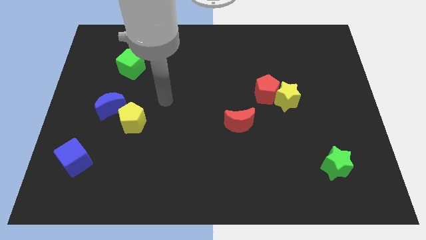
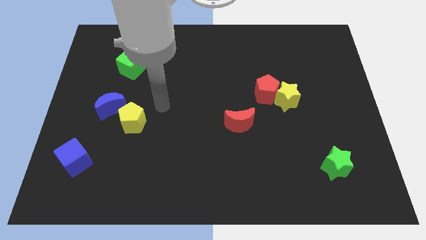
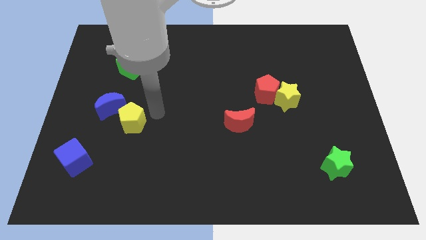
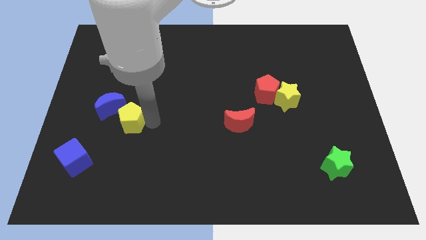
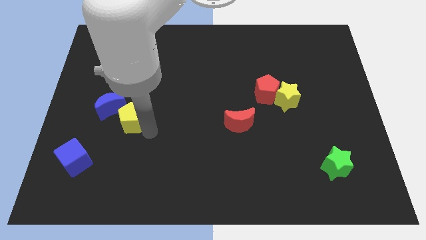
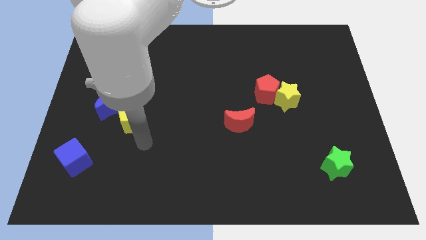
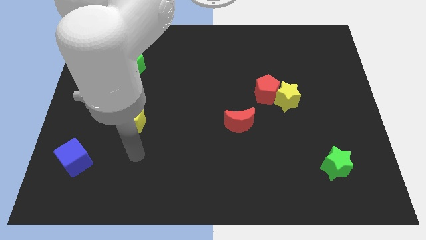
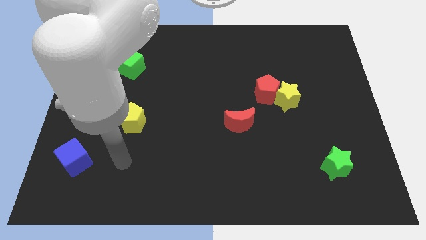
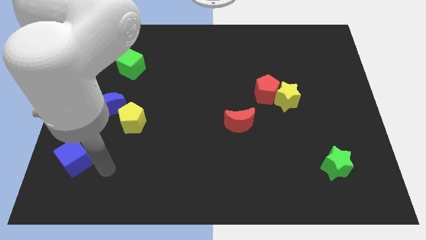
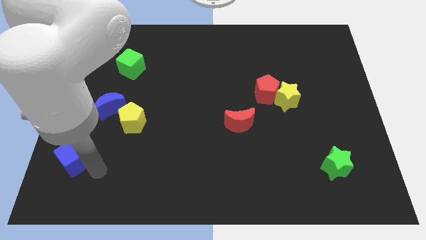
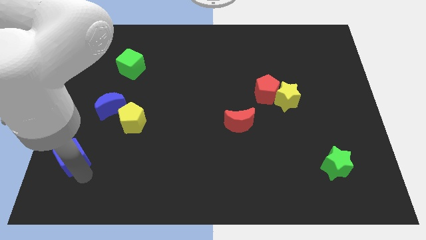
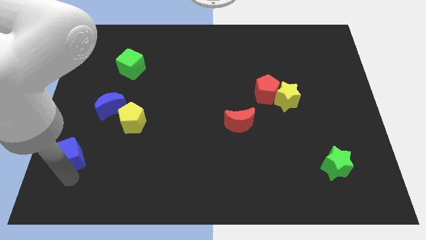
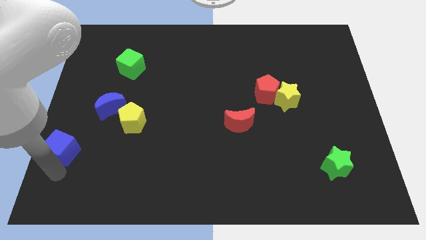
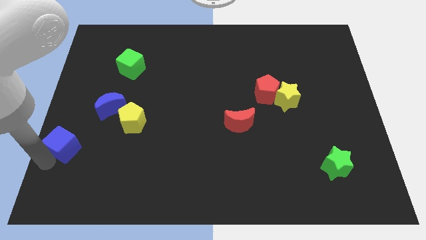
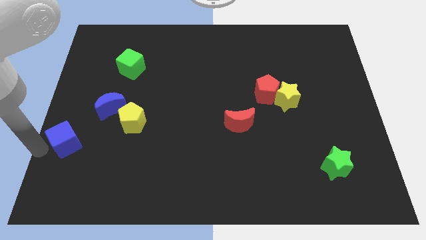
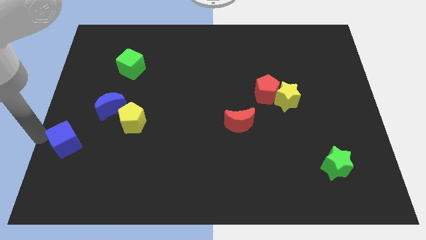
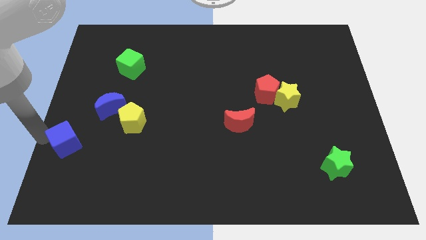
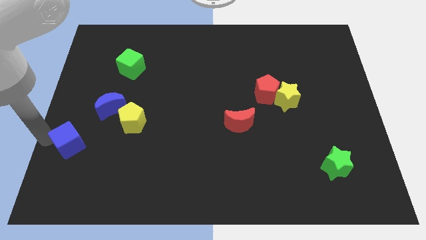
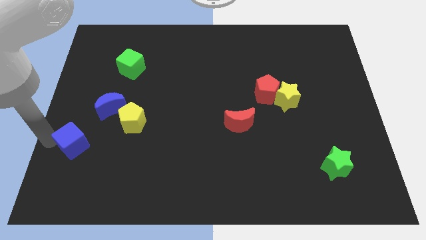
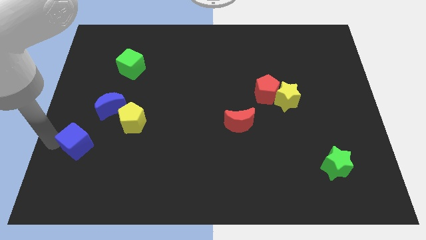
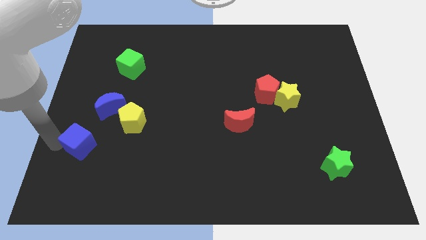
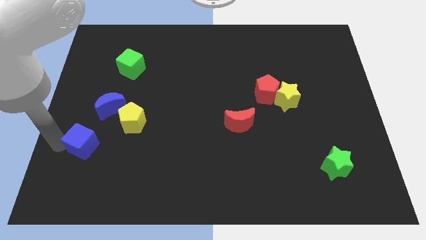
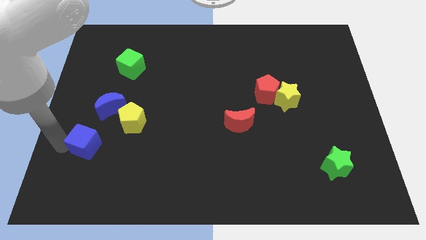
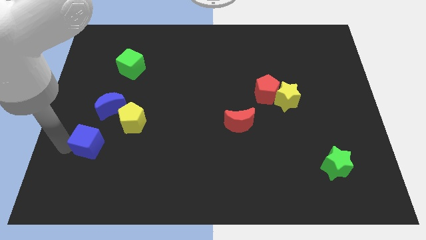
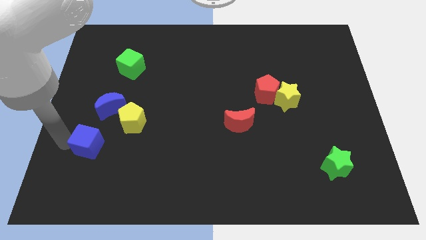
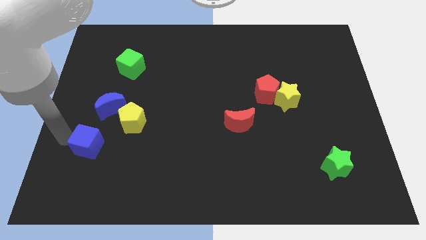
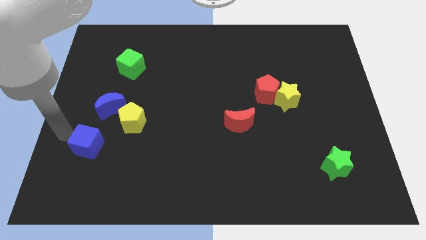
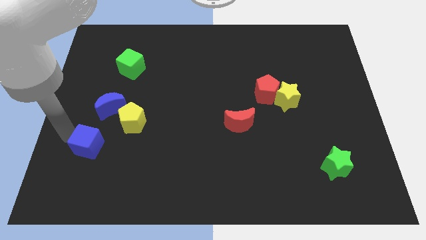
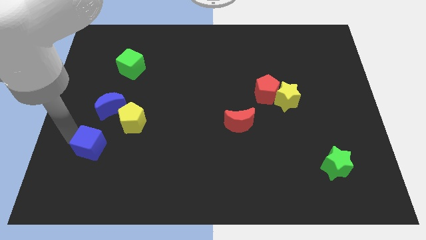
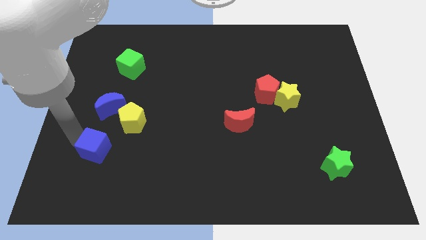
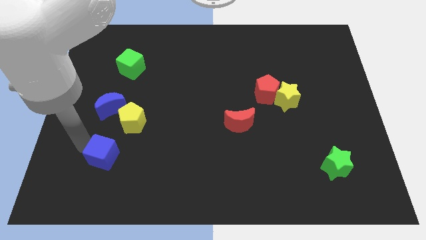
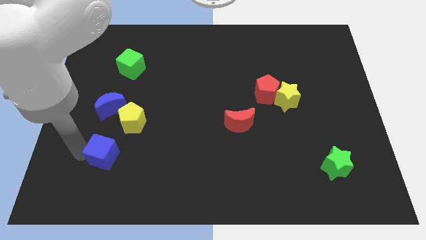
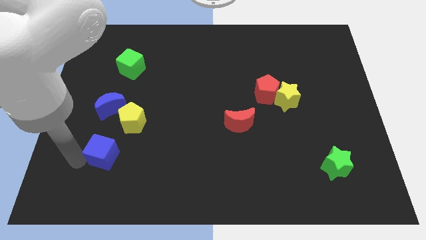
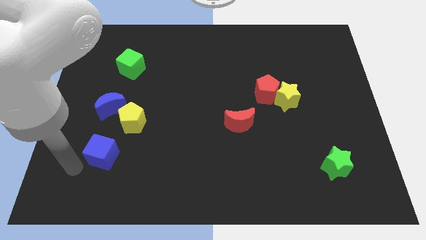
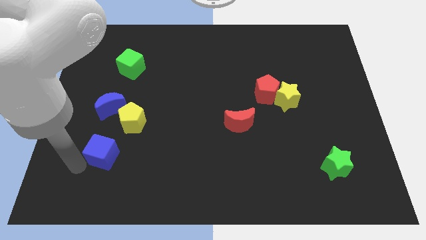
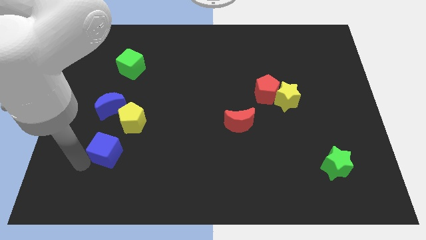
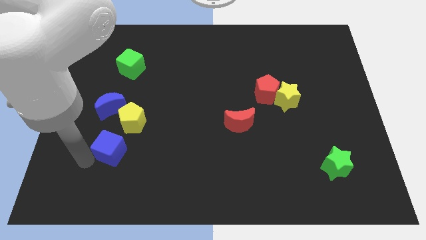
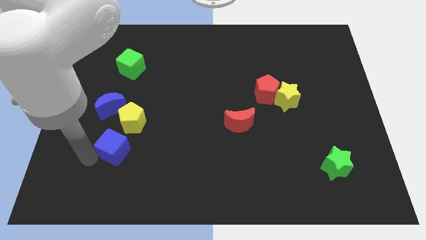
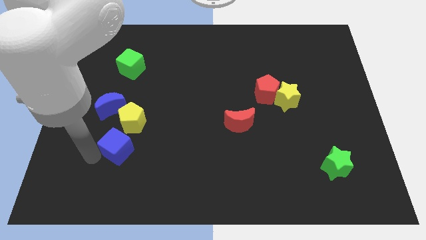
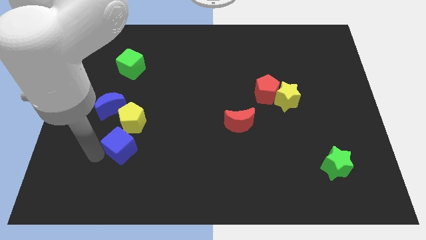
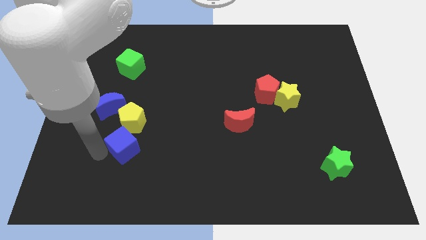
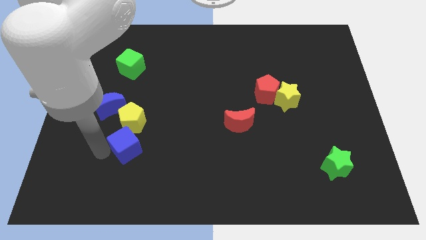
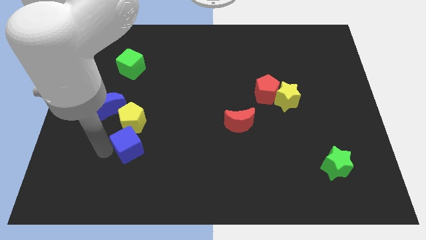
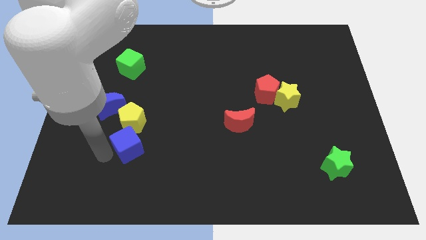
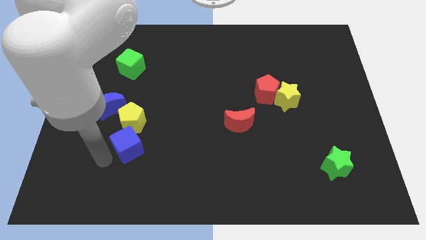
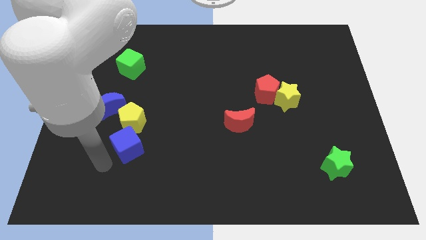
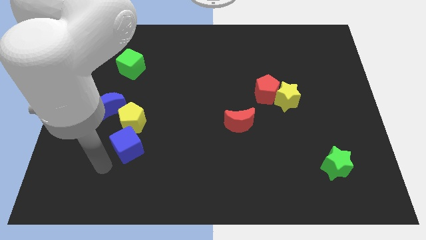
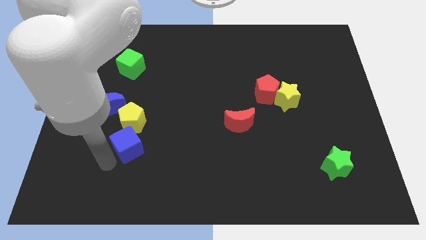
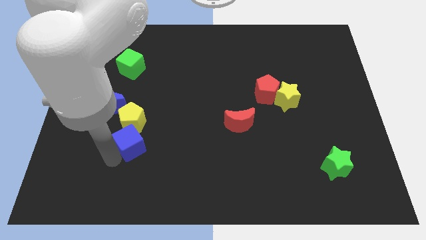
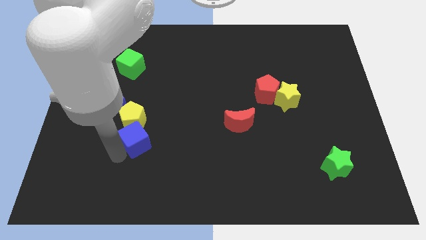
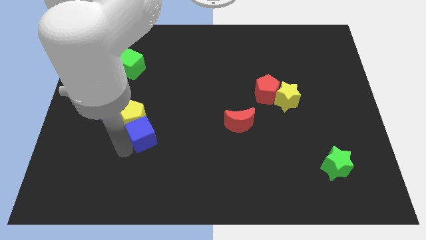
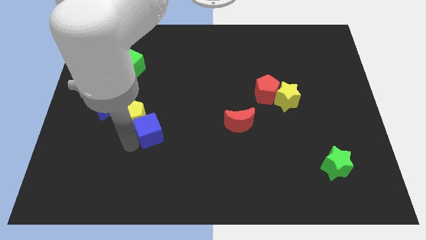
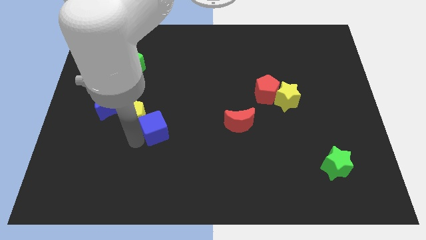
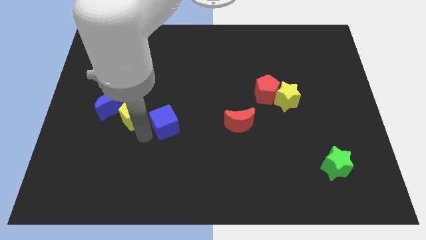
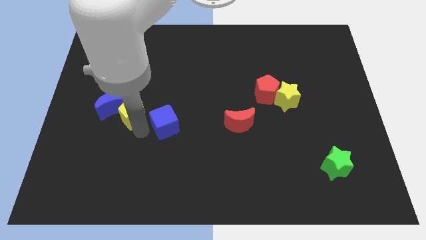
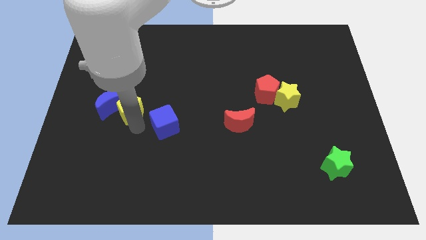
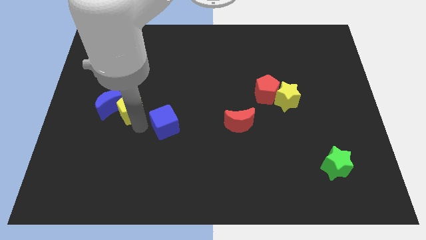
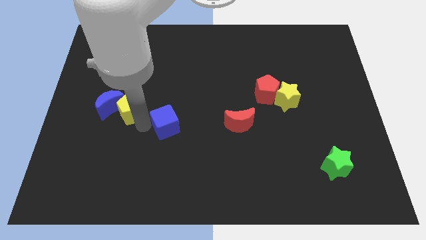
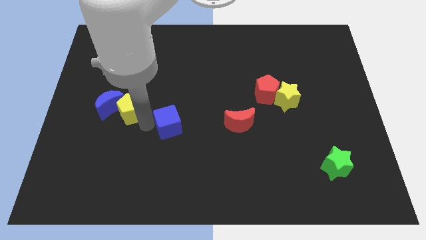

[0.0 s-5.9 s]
push the blue cube just left of the red moon

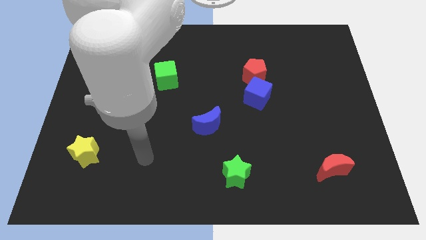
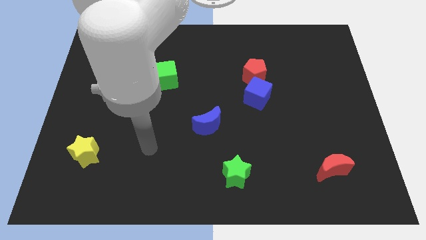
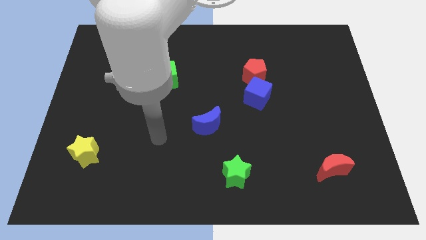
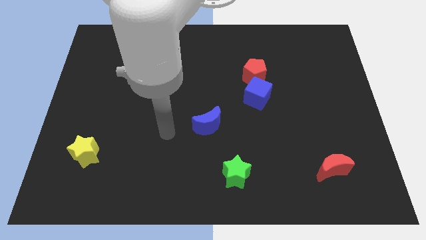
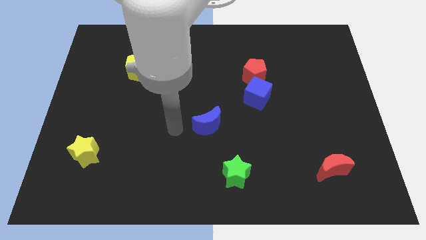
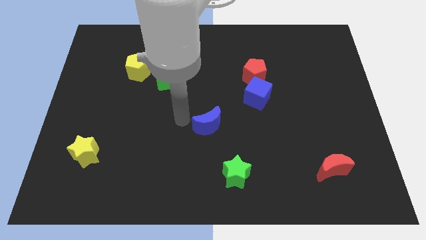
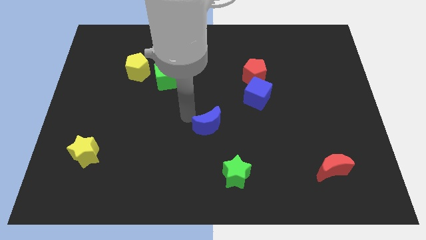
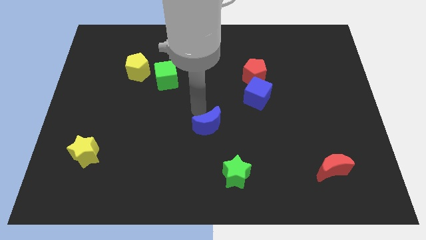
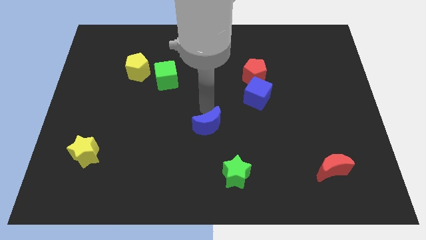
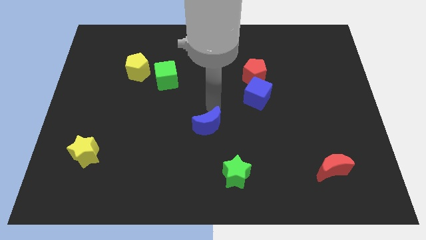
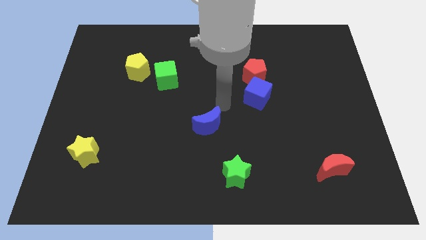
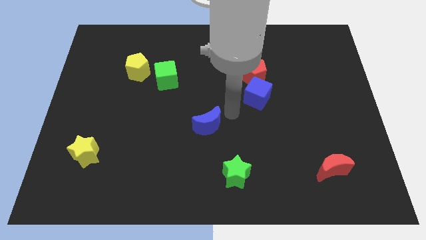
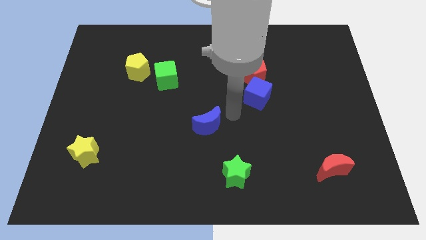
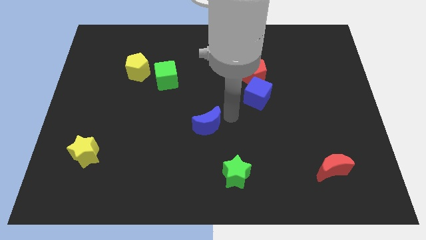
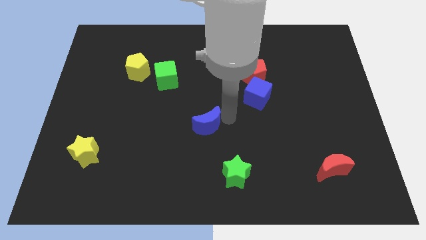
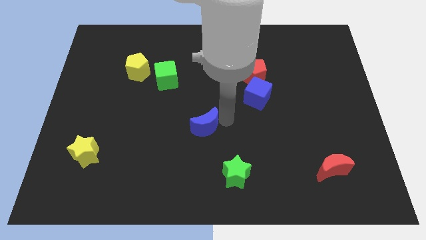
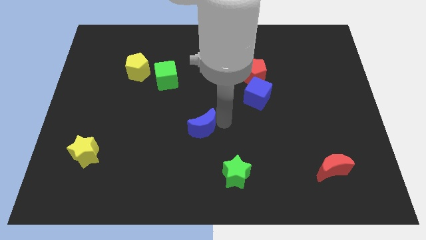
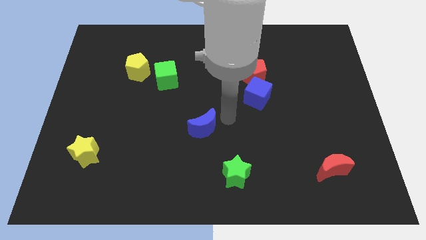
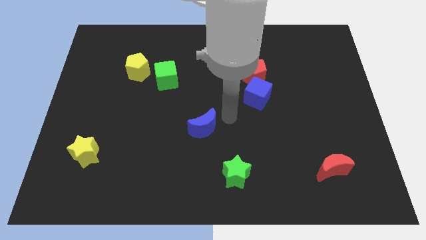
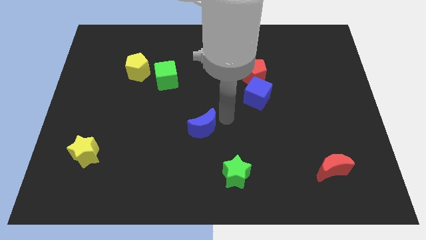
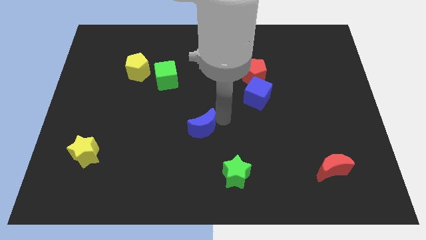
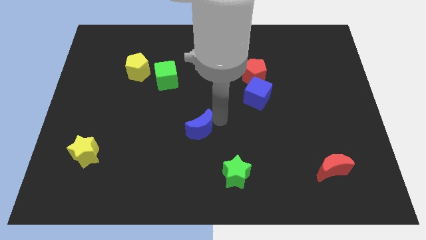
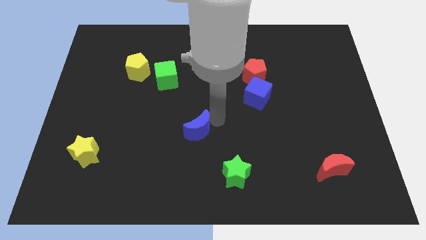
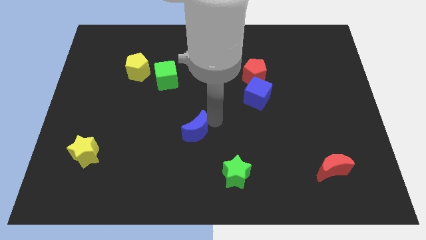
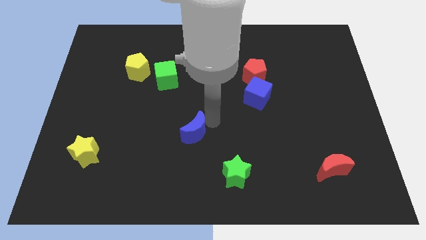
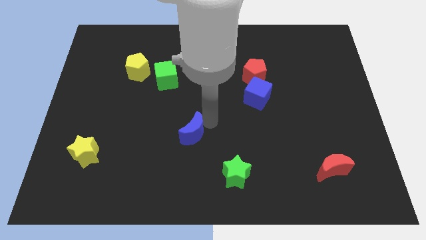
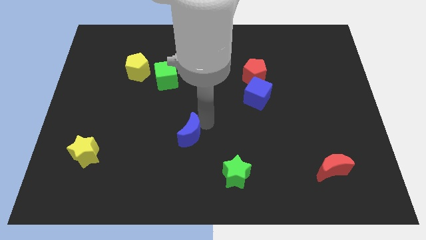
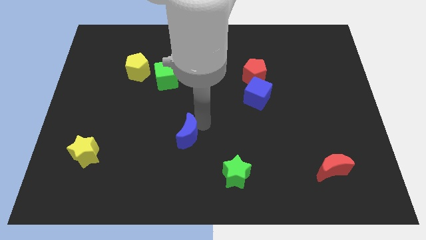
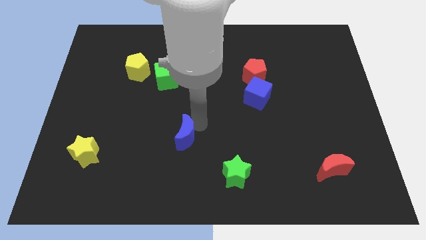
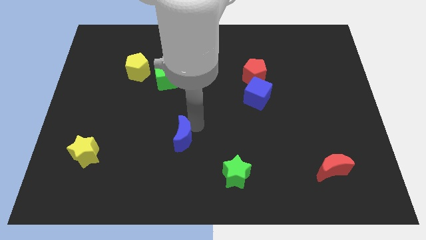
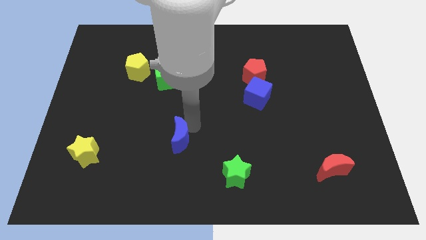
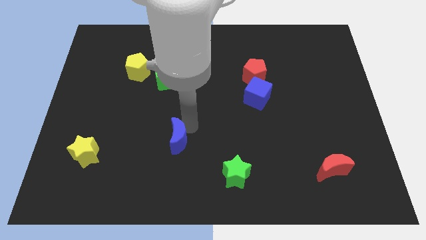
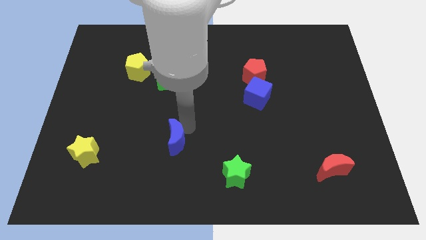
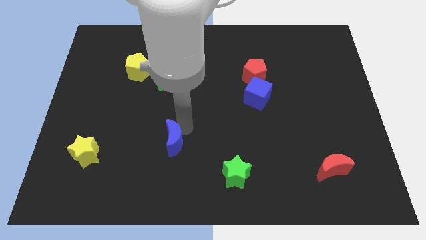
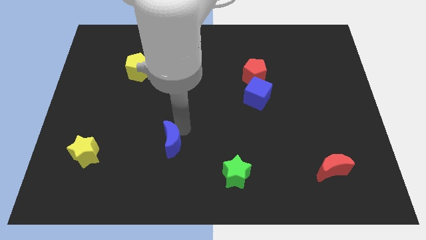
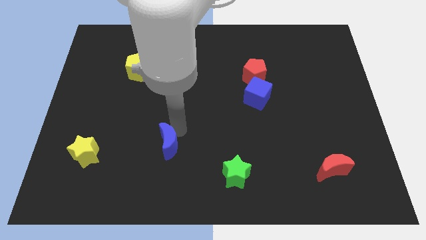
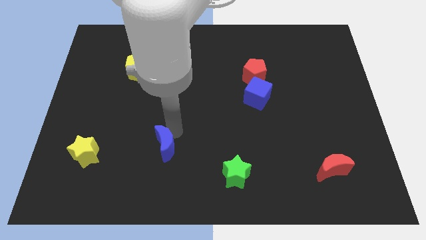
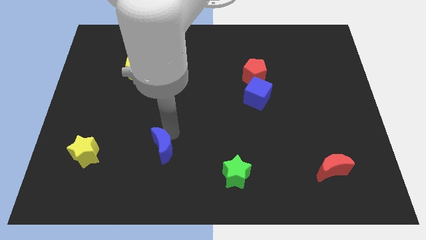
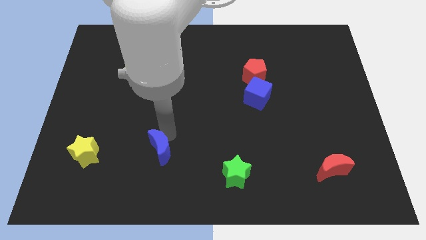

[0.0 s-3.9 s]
push the blue moon right of the yellow star
